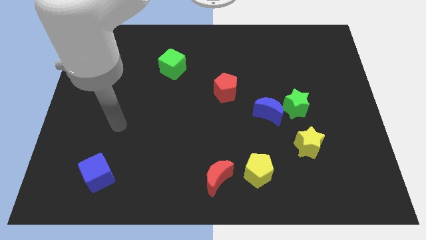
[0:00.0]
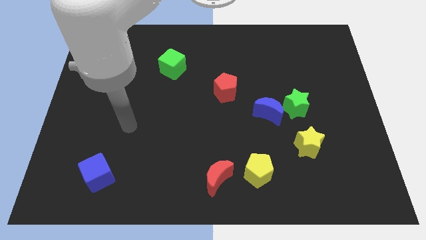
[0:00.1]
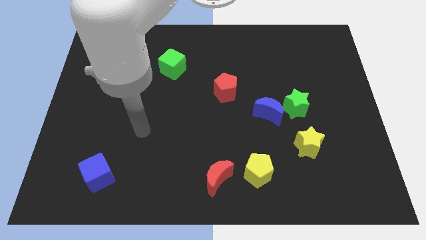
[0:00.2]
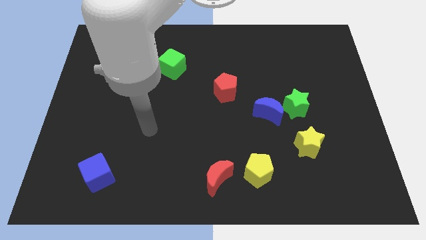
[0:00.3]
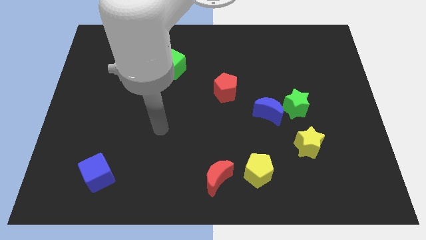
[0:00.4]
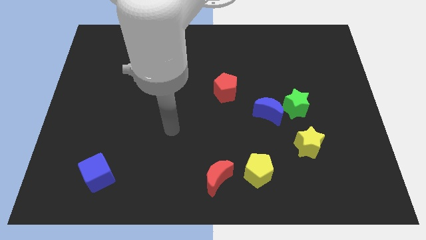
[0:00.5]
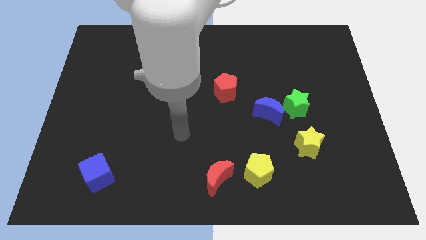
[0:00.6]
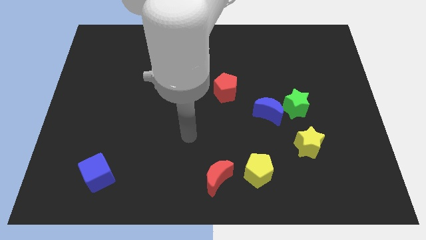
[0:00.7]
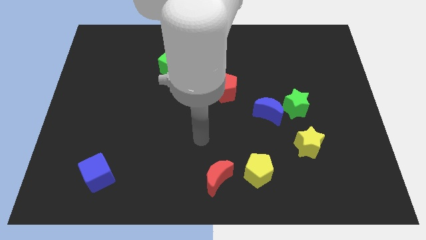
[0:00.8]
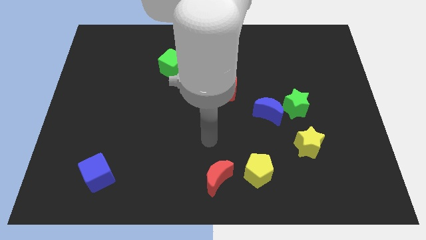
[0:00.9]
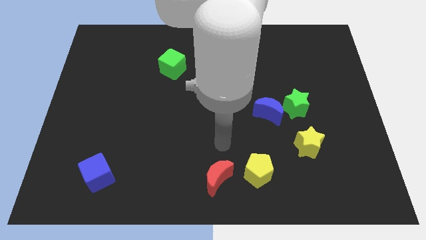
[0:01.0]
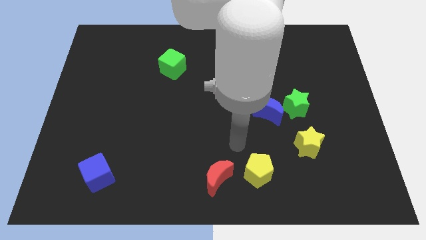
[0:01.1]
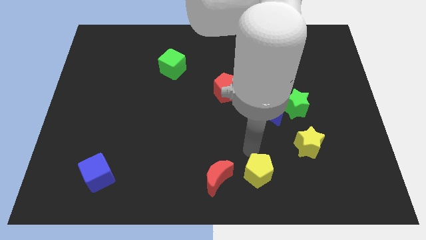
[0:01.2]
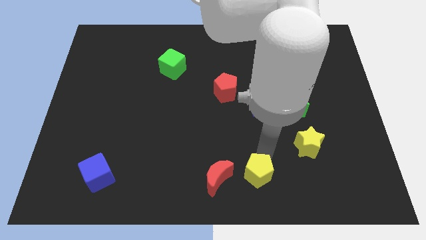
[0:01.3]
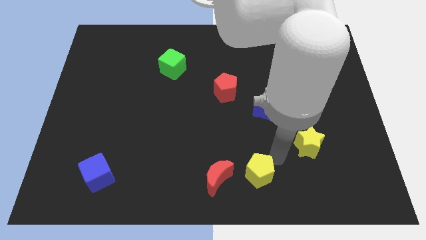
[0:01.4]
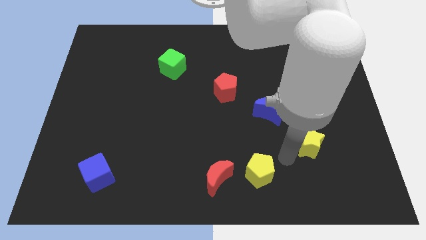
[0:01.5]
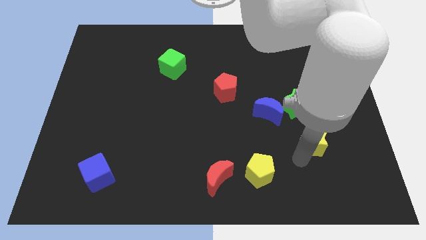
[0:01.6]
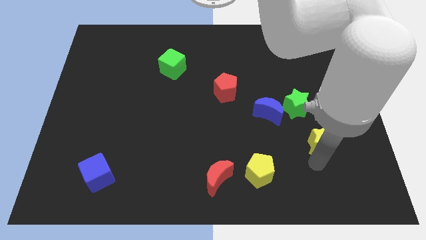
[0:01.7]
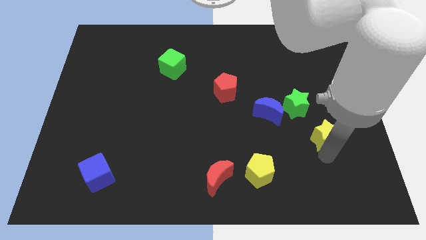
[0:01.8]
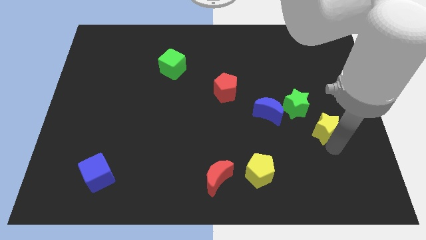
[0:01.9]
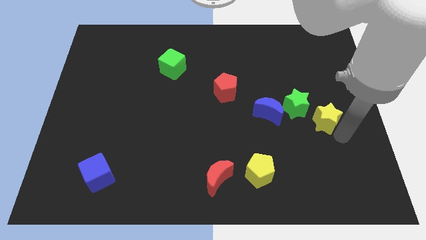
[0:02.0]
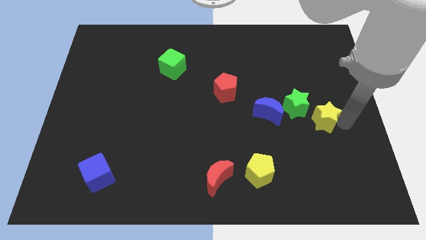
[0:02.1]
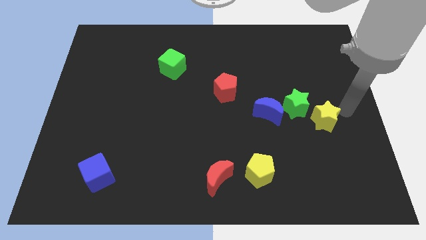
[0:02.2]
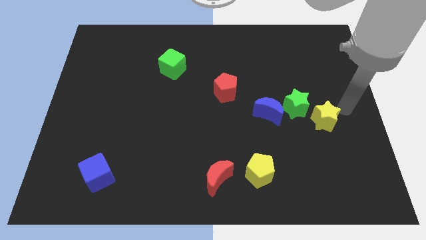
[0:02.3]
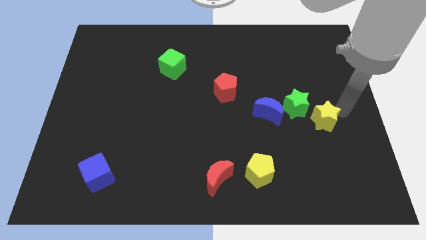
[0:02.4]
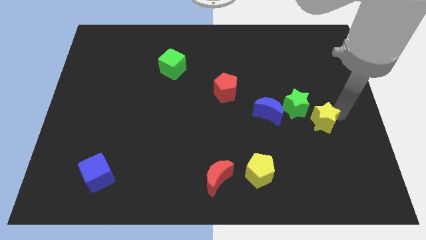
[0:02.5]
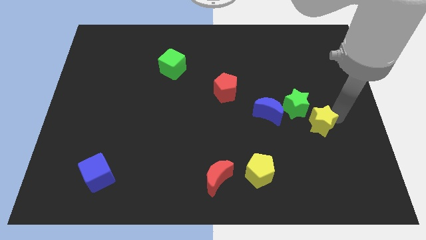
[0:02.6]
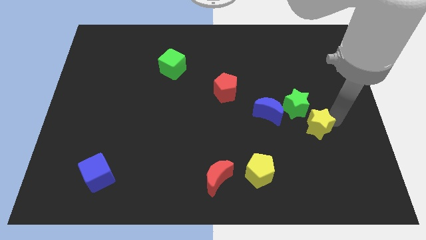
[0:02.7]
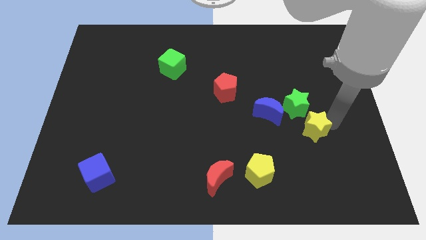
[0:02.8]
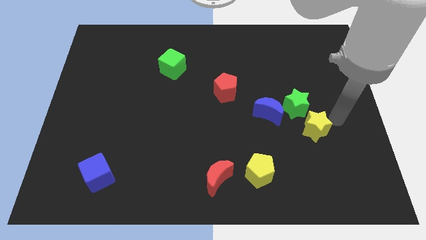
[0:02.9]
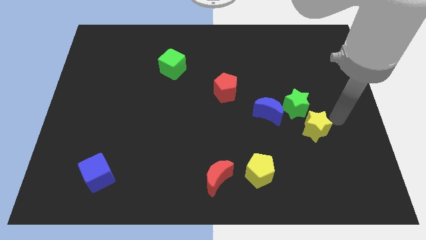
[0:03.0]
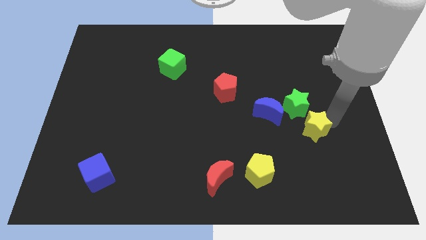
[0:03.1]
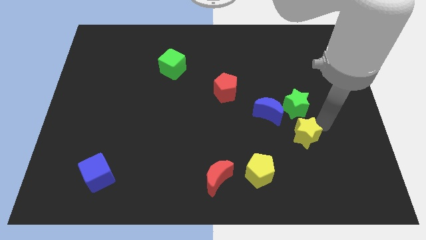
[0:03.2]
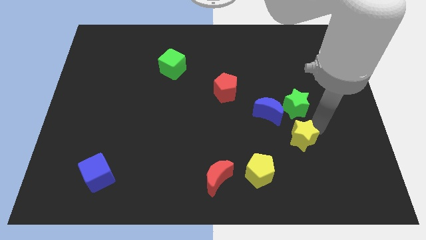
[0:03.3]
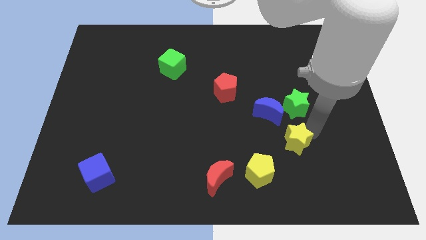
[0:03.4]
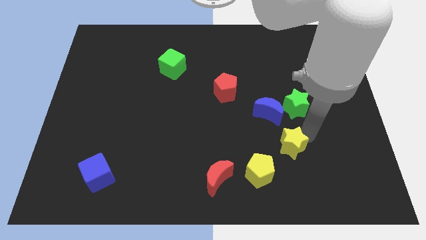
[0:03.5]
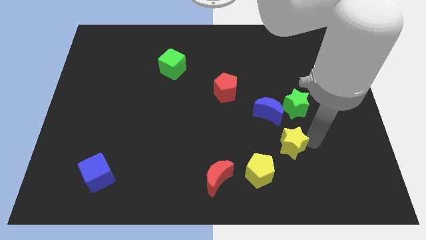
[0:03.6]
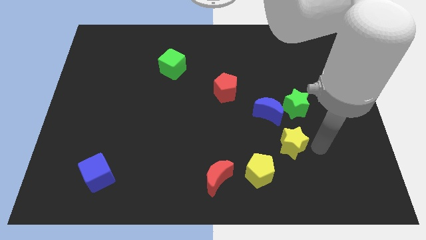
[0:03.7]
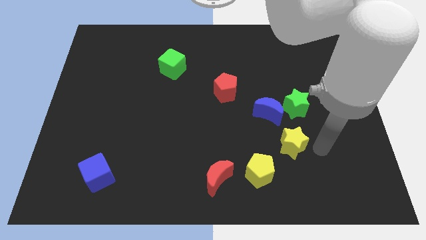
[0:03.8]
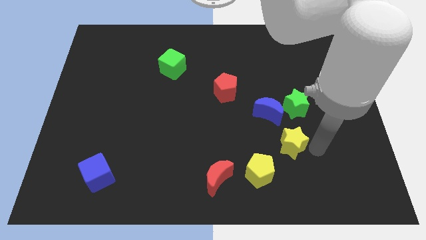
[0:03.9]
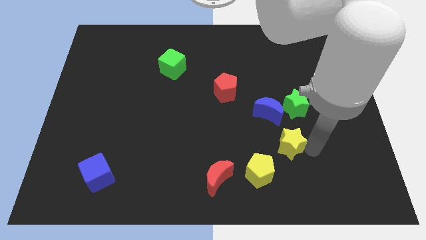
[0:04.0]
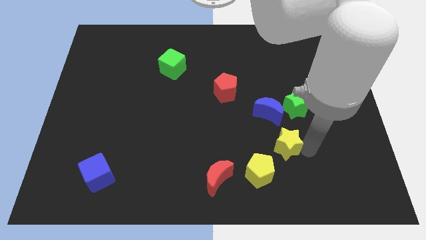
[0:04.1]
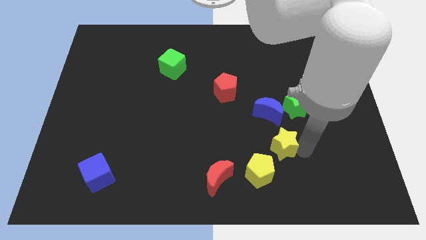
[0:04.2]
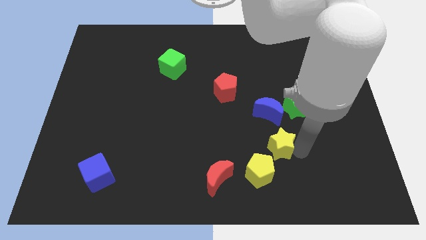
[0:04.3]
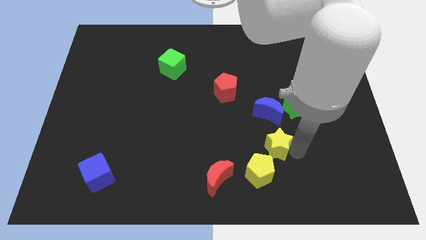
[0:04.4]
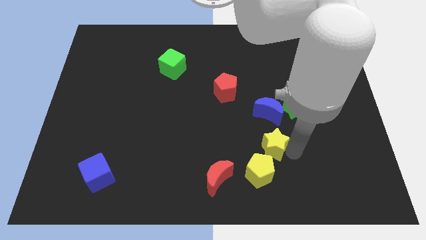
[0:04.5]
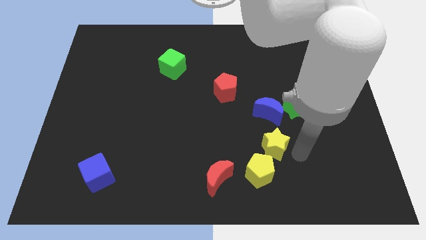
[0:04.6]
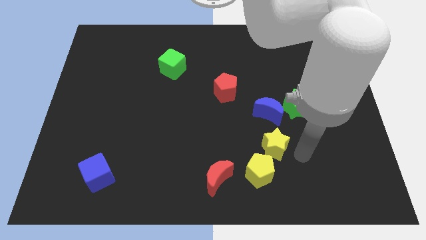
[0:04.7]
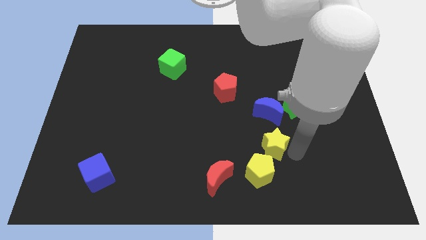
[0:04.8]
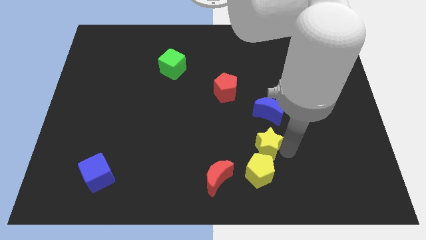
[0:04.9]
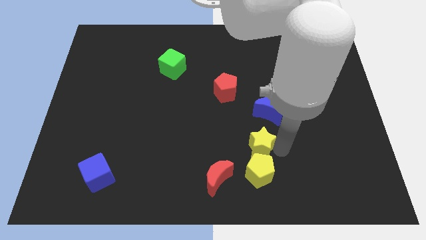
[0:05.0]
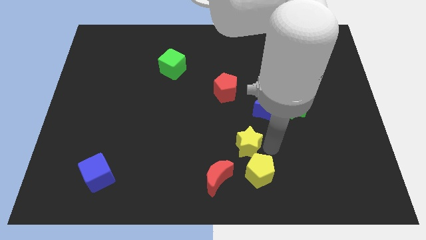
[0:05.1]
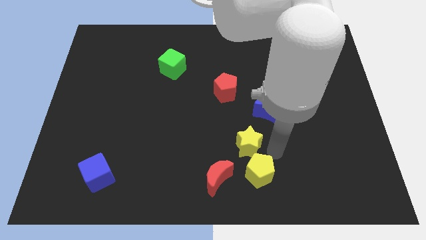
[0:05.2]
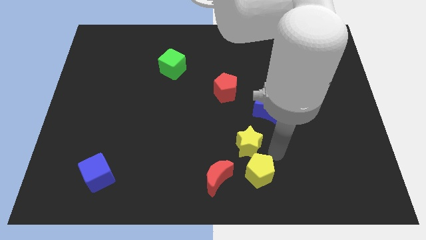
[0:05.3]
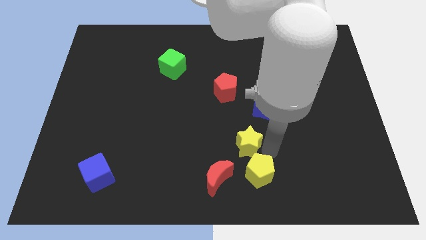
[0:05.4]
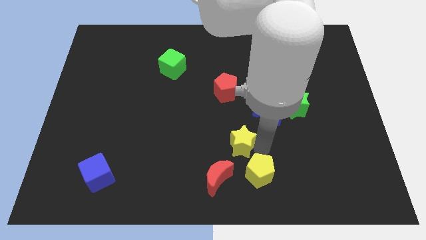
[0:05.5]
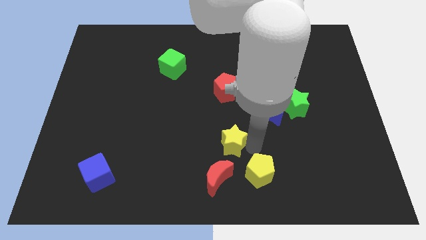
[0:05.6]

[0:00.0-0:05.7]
move the yellow star above the red moon
